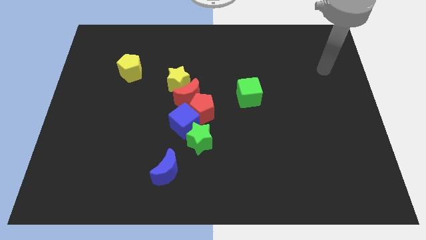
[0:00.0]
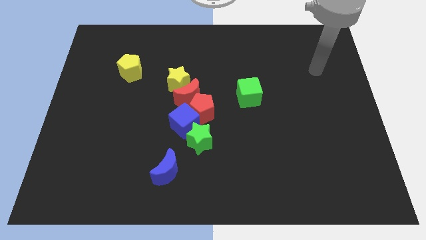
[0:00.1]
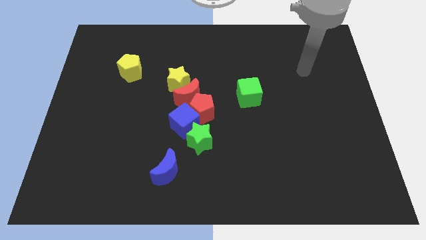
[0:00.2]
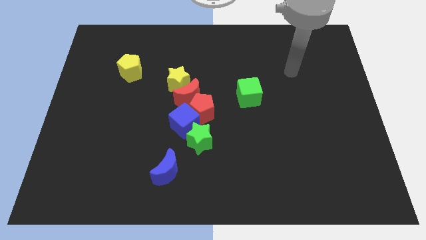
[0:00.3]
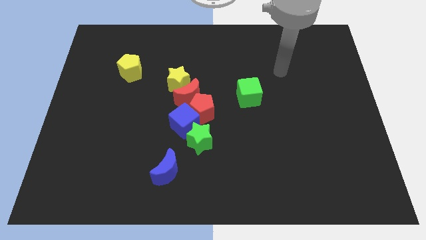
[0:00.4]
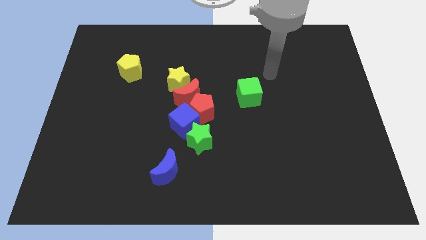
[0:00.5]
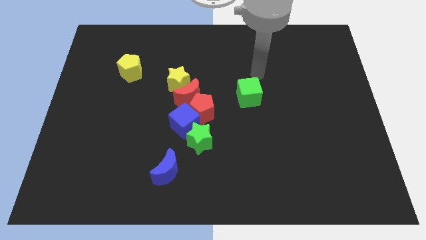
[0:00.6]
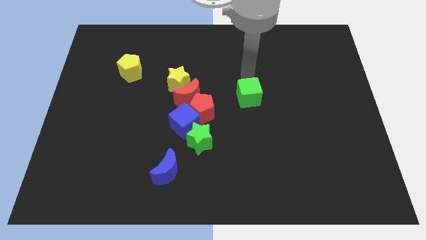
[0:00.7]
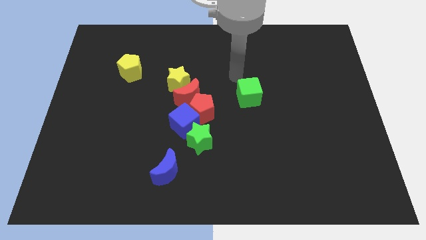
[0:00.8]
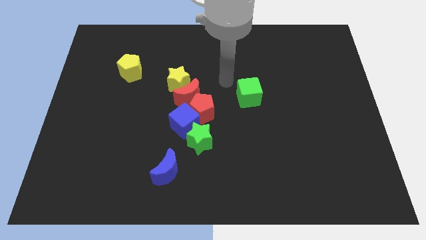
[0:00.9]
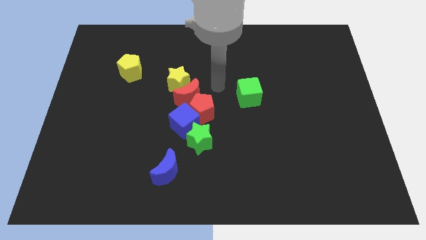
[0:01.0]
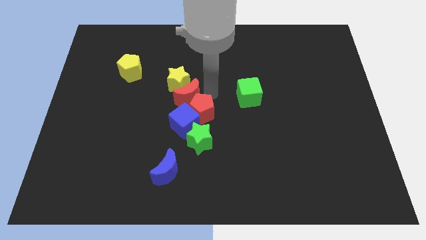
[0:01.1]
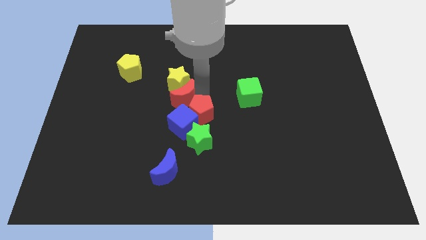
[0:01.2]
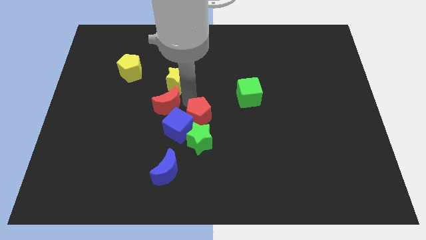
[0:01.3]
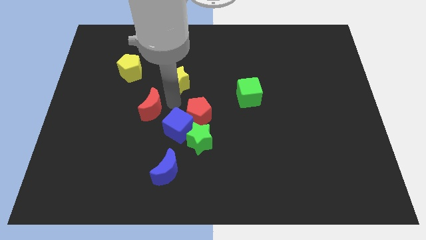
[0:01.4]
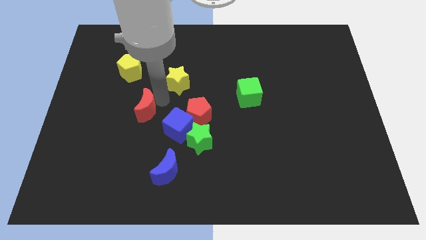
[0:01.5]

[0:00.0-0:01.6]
separate the yellow star from the red moon

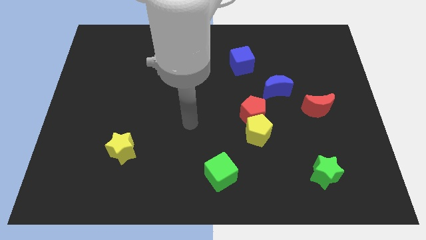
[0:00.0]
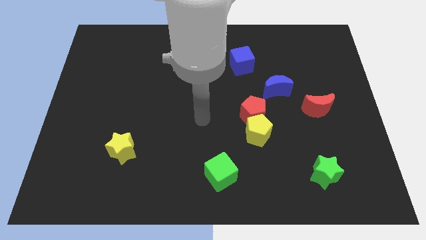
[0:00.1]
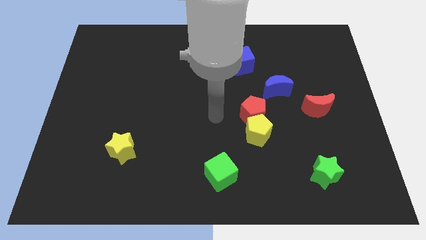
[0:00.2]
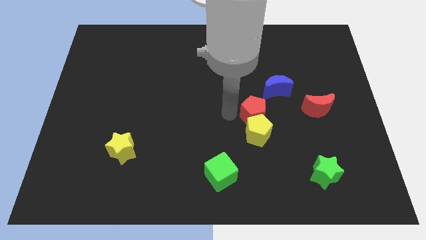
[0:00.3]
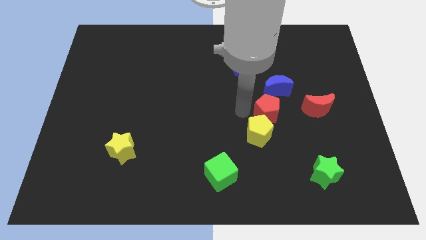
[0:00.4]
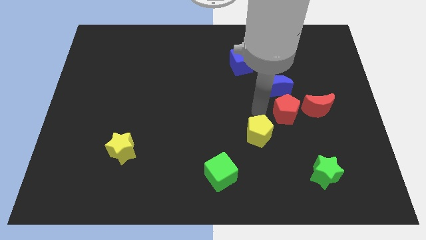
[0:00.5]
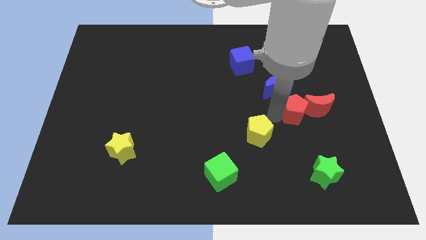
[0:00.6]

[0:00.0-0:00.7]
separate the yellow pentagon from the red pentagon

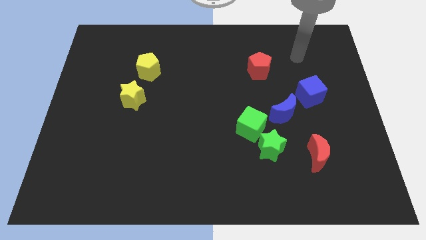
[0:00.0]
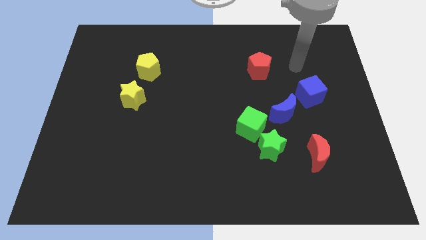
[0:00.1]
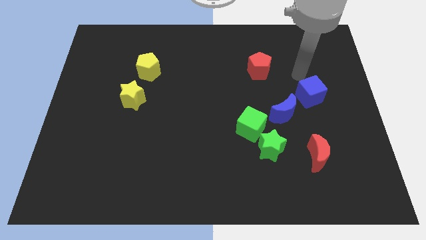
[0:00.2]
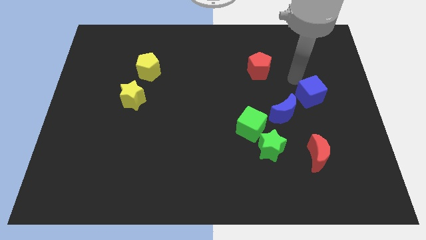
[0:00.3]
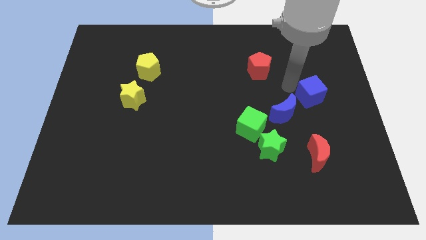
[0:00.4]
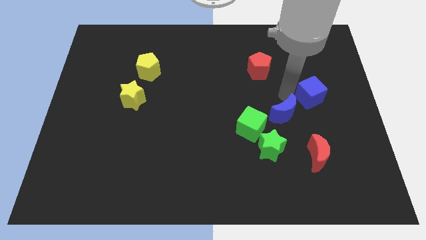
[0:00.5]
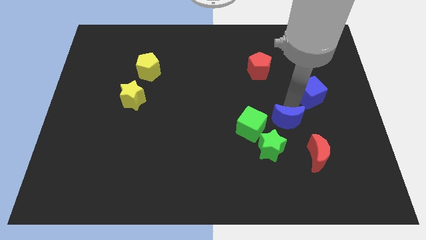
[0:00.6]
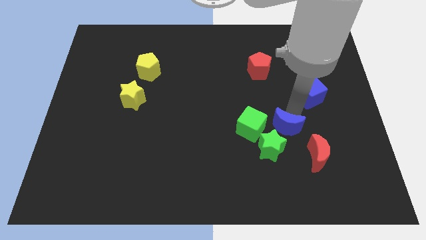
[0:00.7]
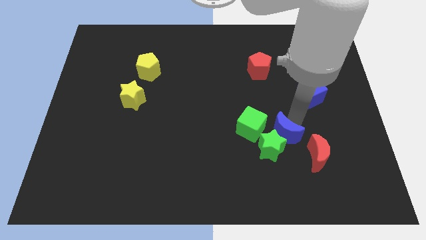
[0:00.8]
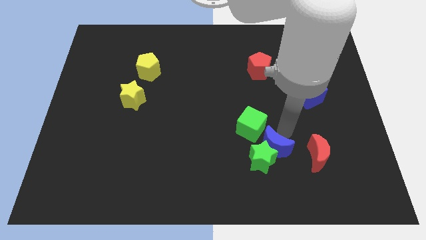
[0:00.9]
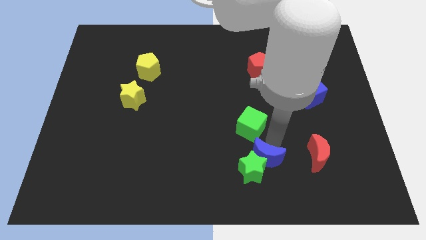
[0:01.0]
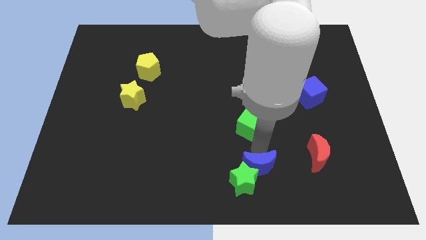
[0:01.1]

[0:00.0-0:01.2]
move the green cube away from the green star and blue moon

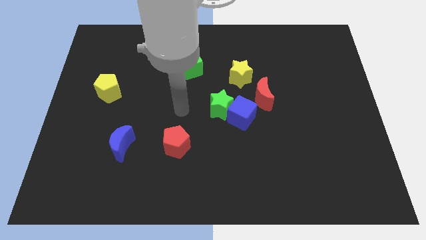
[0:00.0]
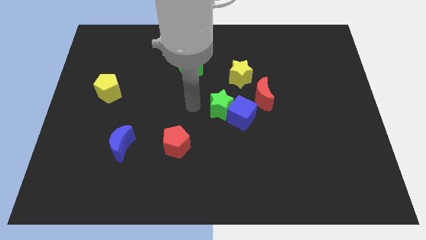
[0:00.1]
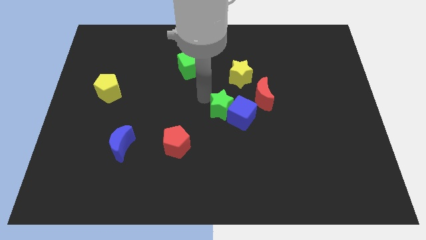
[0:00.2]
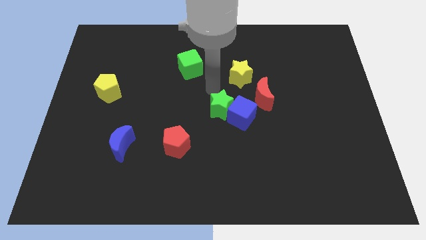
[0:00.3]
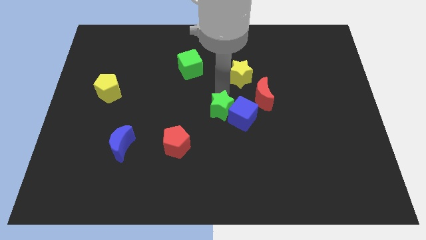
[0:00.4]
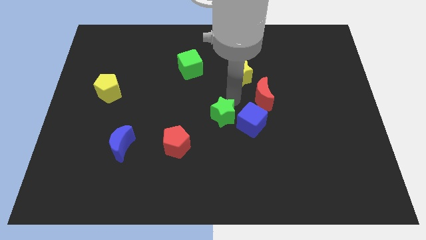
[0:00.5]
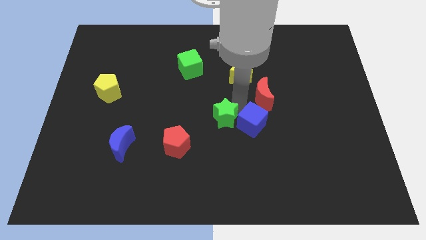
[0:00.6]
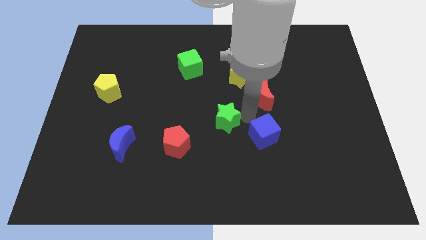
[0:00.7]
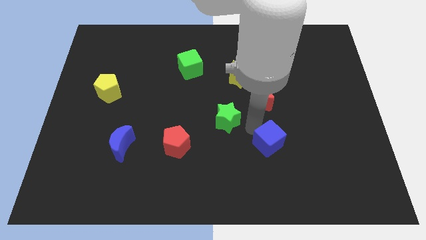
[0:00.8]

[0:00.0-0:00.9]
move the green star away from the blue cube

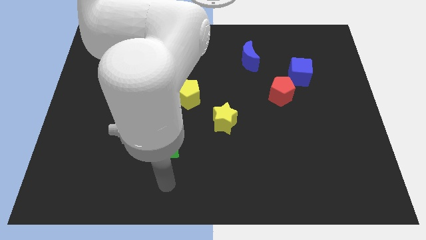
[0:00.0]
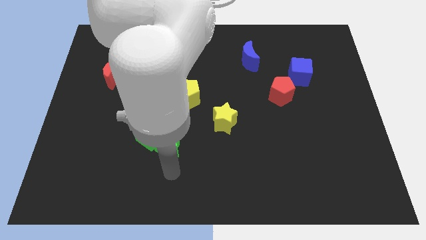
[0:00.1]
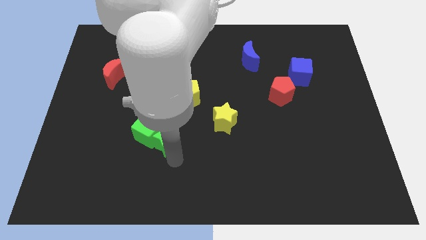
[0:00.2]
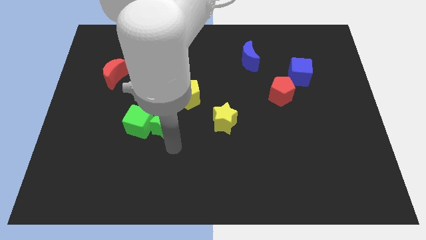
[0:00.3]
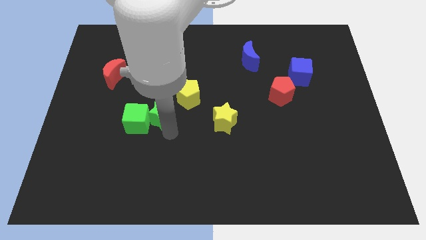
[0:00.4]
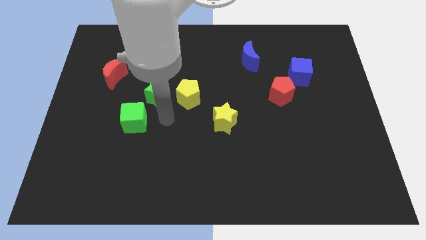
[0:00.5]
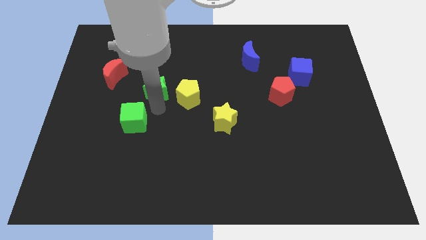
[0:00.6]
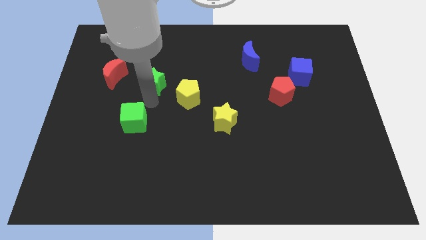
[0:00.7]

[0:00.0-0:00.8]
pull the green cube apart from the green star

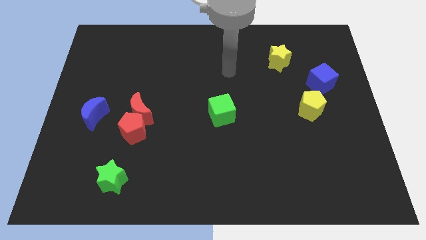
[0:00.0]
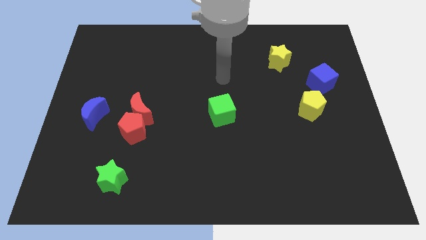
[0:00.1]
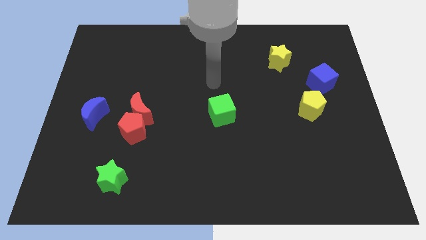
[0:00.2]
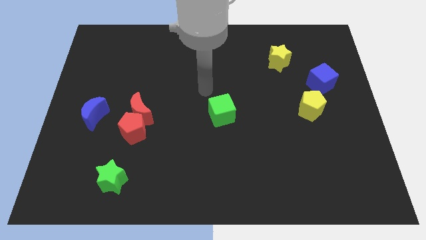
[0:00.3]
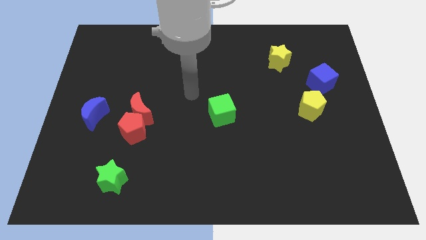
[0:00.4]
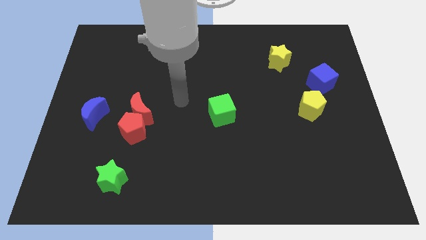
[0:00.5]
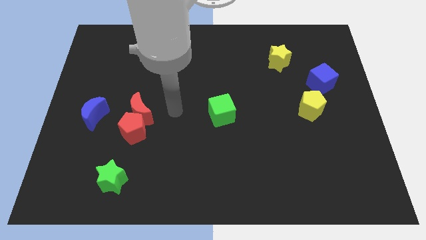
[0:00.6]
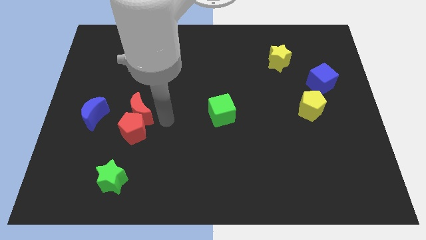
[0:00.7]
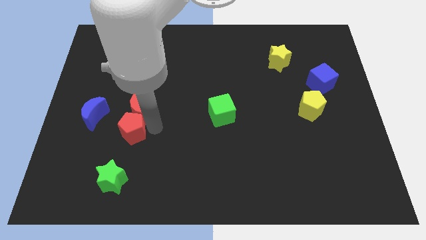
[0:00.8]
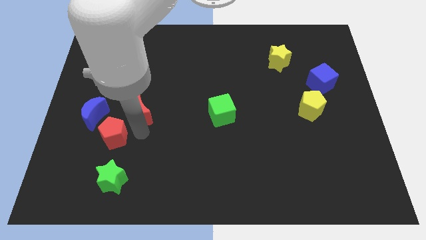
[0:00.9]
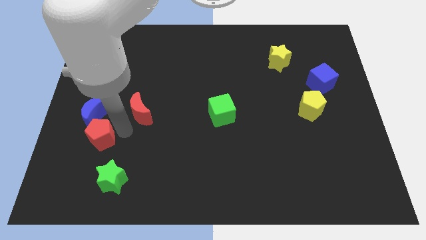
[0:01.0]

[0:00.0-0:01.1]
pull the red moon apart from the red pentagon

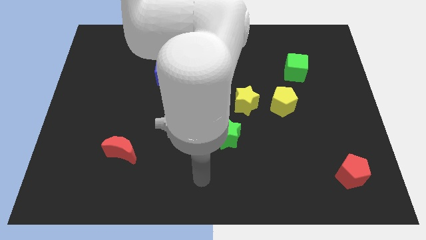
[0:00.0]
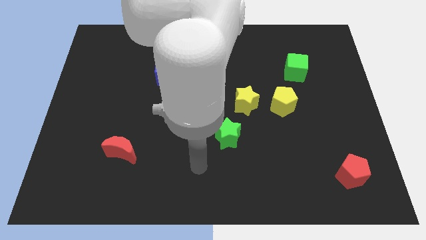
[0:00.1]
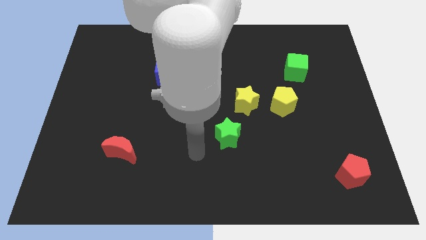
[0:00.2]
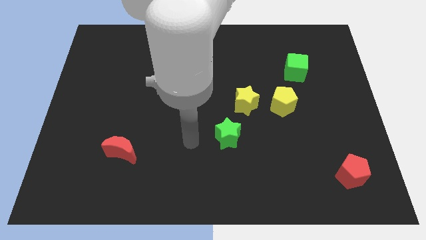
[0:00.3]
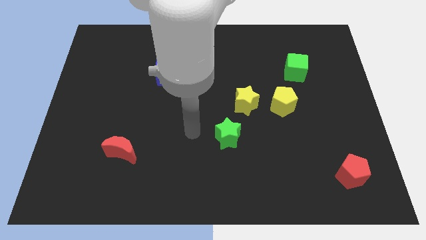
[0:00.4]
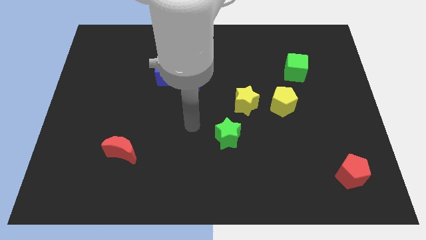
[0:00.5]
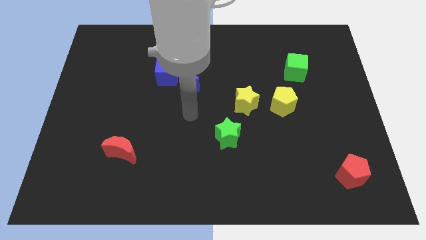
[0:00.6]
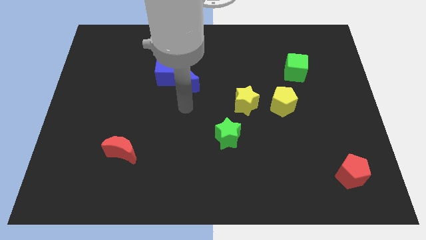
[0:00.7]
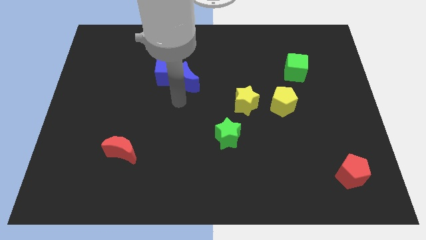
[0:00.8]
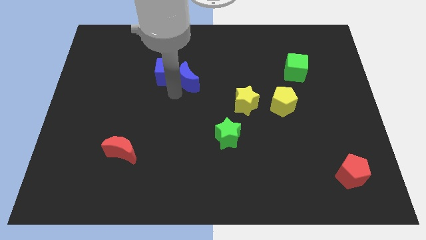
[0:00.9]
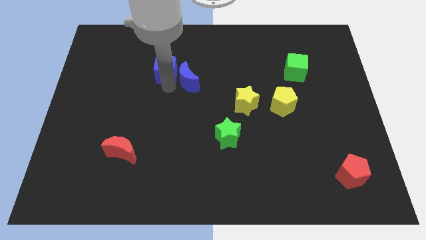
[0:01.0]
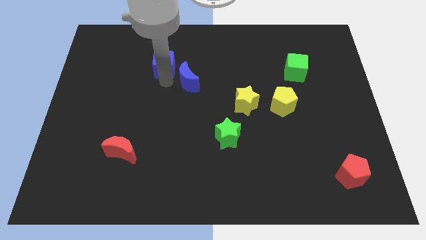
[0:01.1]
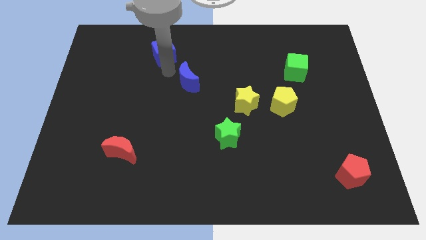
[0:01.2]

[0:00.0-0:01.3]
move the blue moon away from the blue cube

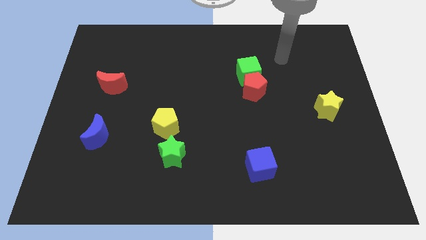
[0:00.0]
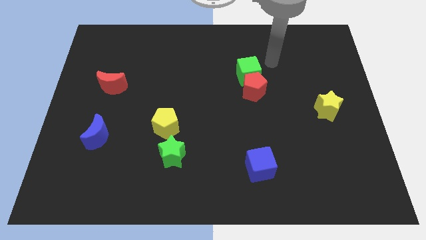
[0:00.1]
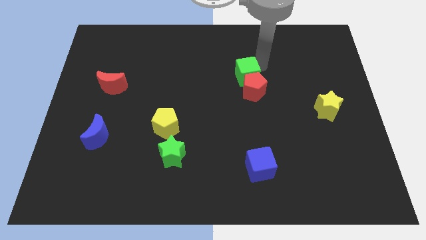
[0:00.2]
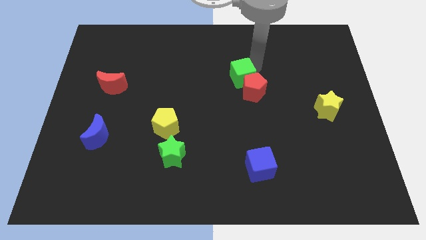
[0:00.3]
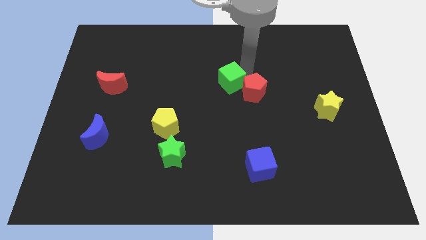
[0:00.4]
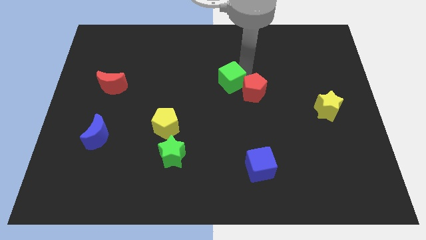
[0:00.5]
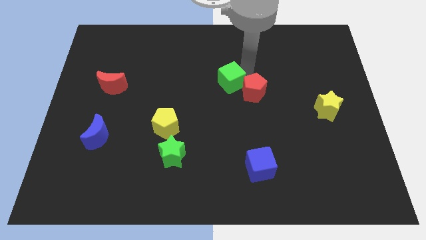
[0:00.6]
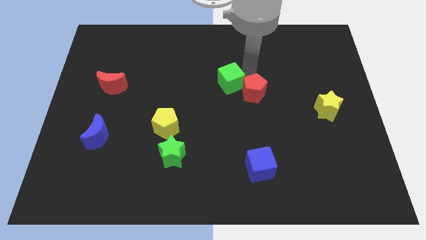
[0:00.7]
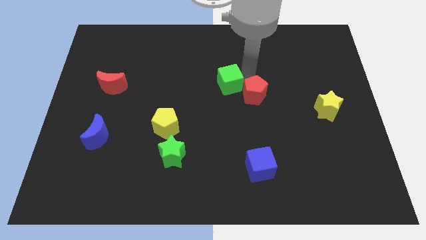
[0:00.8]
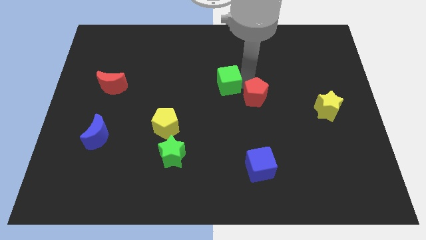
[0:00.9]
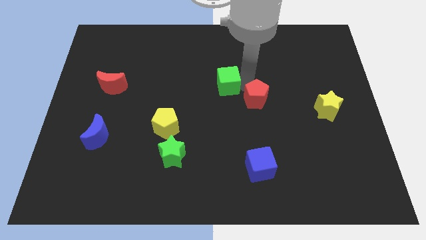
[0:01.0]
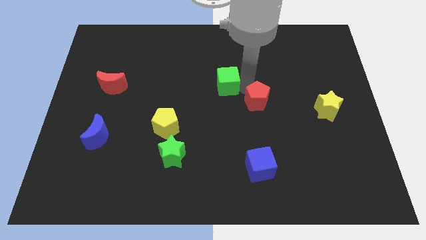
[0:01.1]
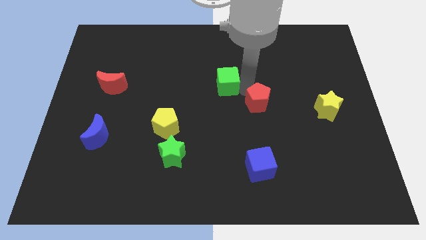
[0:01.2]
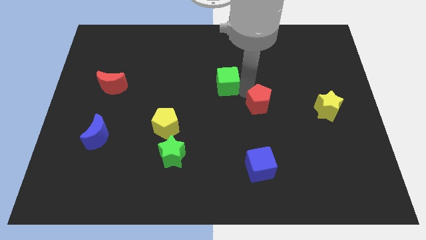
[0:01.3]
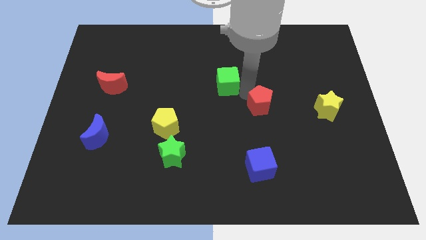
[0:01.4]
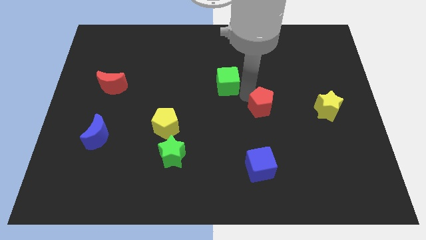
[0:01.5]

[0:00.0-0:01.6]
move the red pentagon away from the green cube
